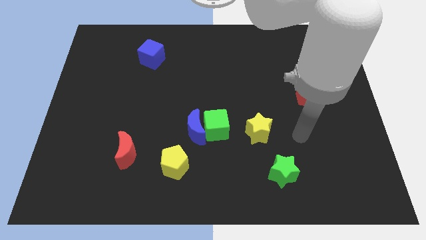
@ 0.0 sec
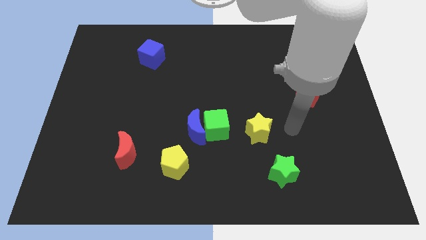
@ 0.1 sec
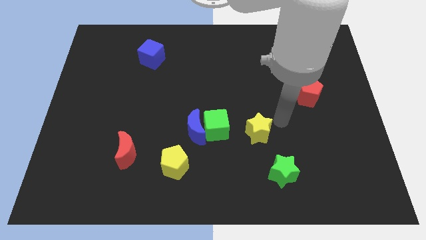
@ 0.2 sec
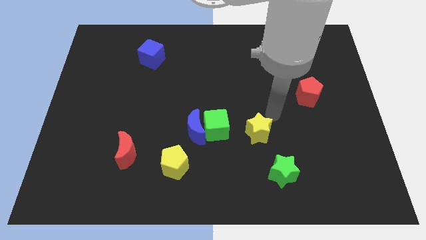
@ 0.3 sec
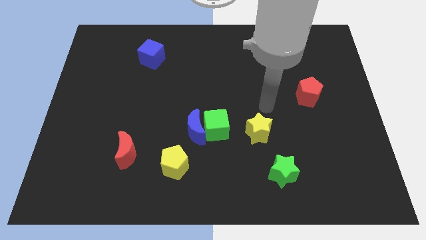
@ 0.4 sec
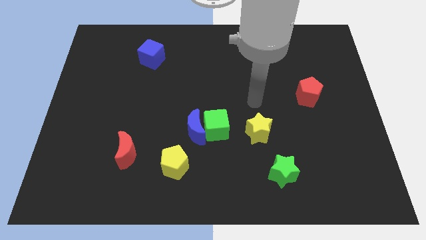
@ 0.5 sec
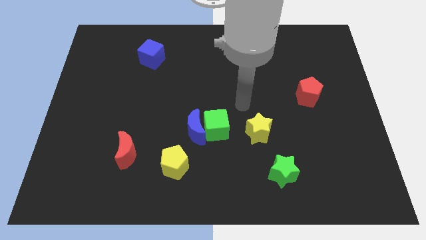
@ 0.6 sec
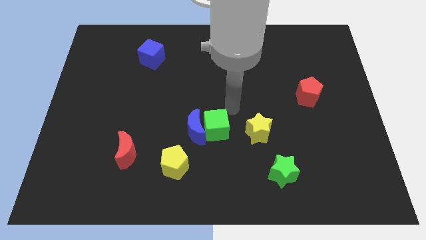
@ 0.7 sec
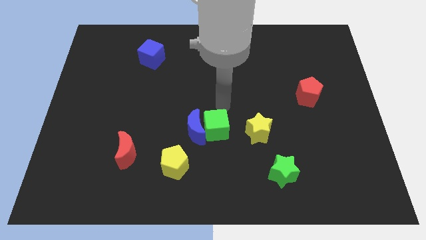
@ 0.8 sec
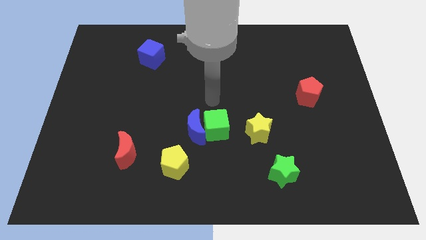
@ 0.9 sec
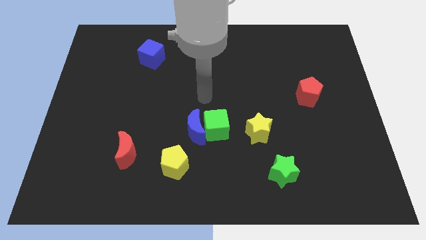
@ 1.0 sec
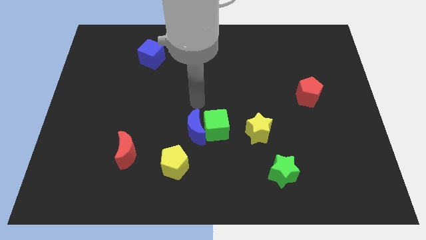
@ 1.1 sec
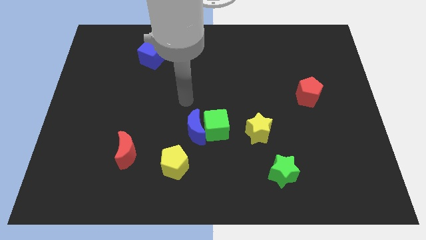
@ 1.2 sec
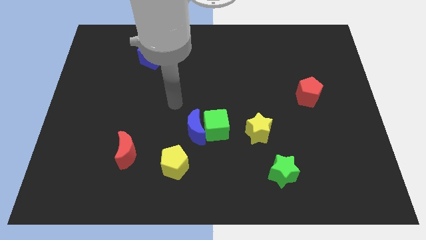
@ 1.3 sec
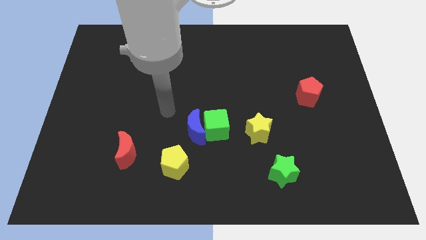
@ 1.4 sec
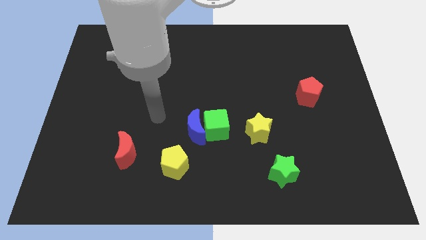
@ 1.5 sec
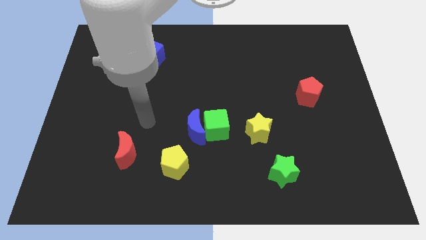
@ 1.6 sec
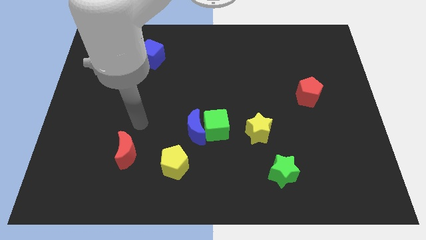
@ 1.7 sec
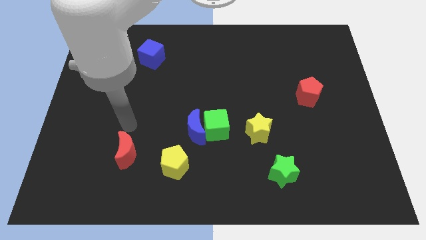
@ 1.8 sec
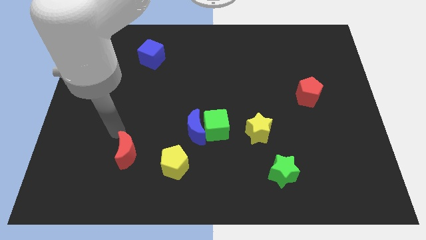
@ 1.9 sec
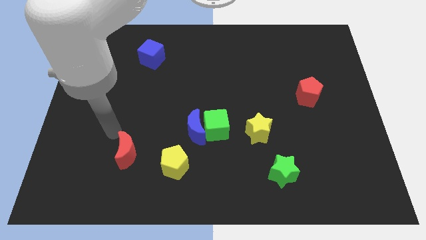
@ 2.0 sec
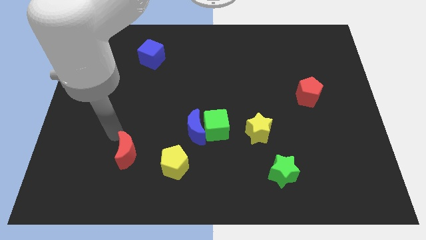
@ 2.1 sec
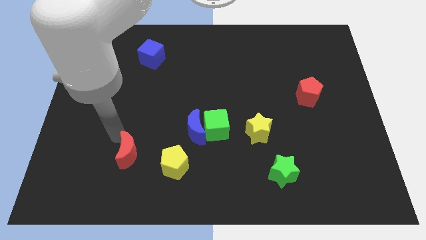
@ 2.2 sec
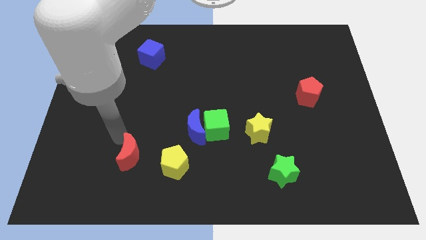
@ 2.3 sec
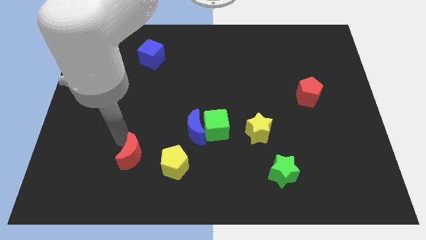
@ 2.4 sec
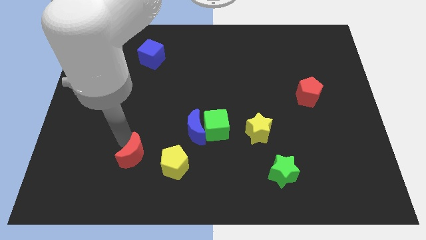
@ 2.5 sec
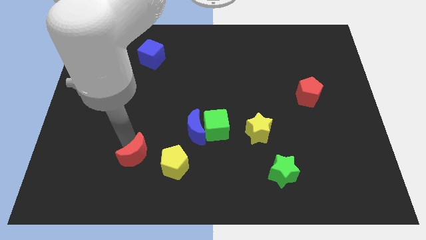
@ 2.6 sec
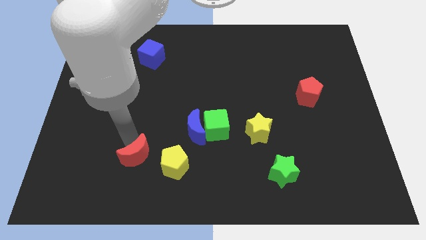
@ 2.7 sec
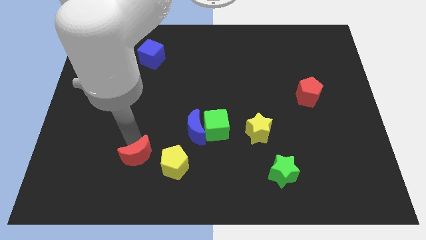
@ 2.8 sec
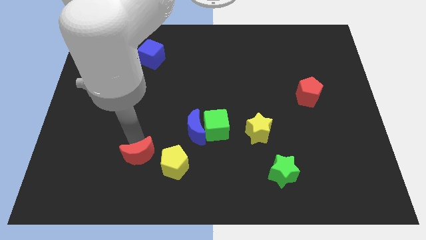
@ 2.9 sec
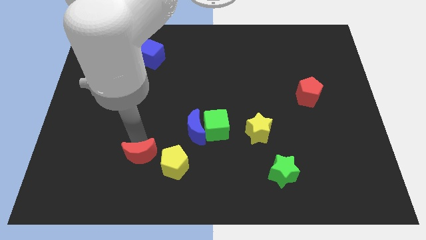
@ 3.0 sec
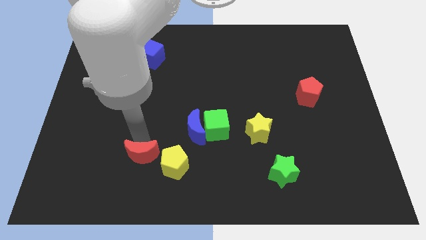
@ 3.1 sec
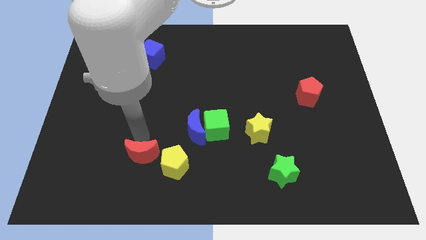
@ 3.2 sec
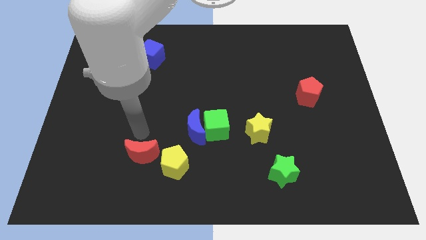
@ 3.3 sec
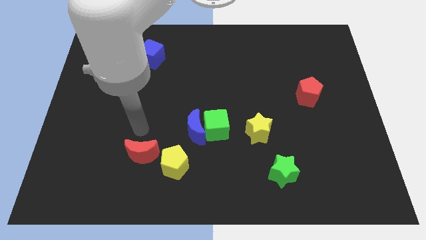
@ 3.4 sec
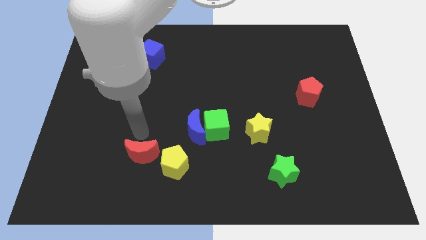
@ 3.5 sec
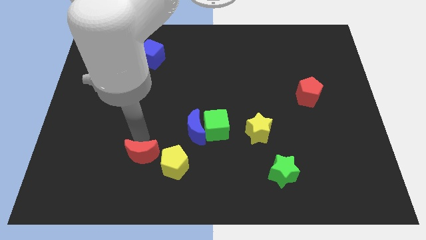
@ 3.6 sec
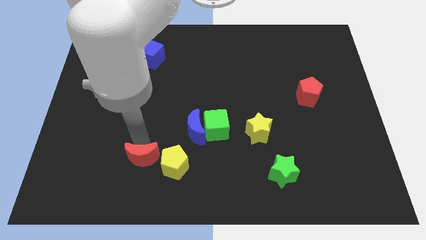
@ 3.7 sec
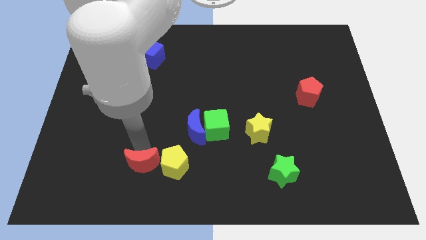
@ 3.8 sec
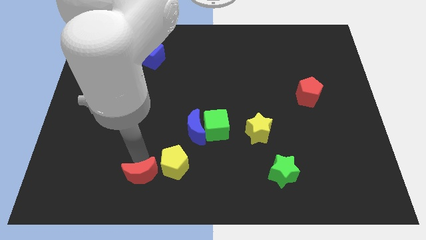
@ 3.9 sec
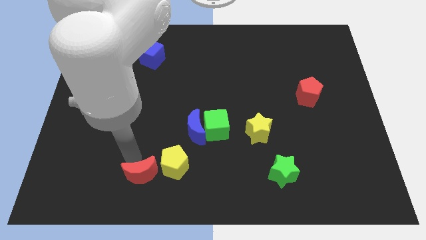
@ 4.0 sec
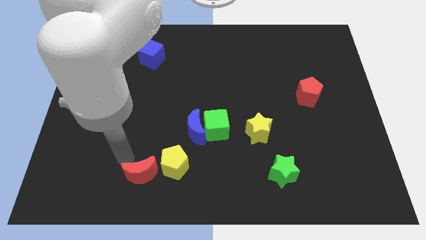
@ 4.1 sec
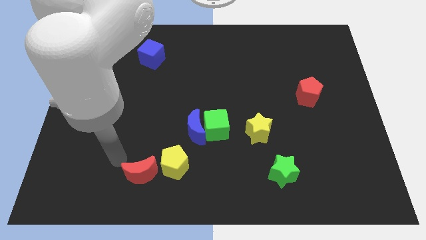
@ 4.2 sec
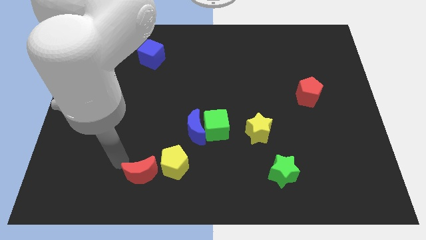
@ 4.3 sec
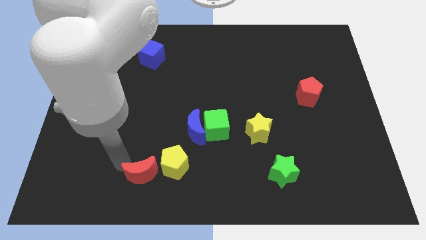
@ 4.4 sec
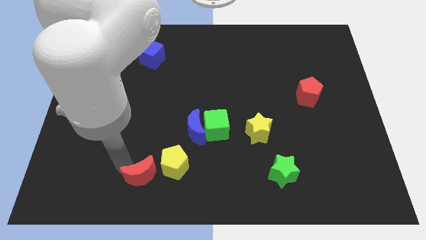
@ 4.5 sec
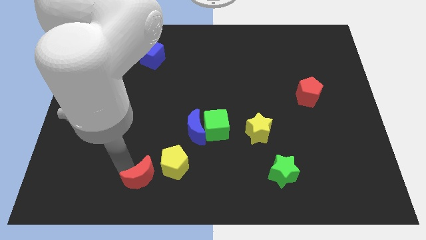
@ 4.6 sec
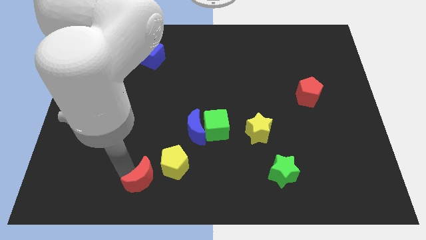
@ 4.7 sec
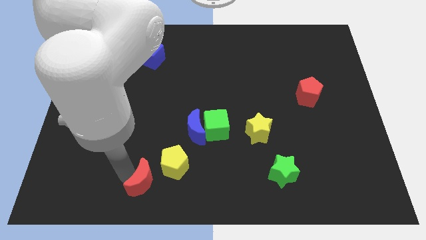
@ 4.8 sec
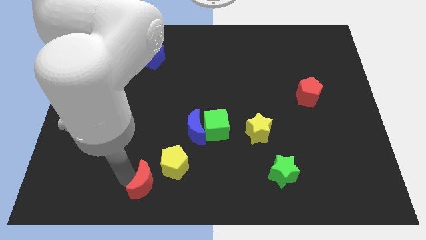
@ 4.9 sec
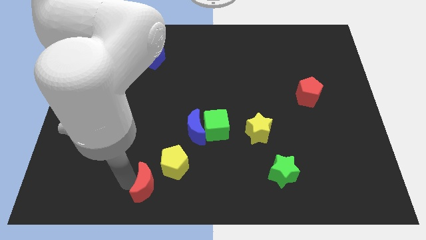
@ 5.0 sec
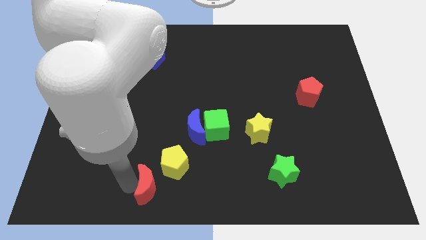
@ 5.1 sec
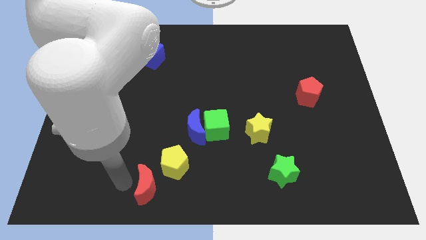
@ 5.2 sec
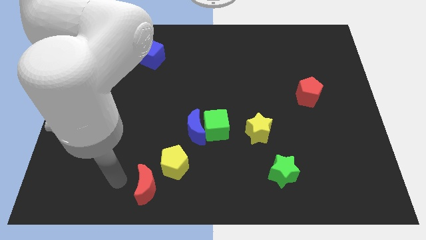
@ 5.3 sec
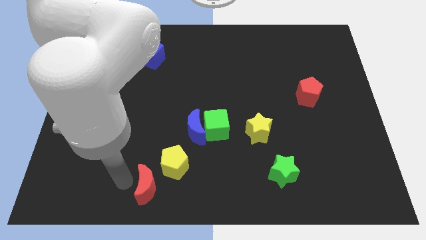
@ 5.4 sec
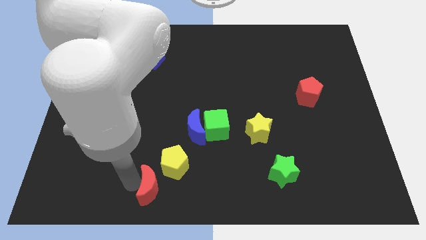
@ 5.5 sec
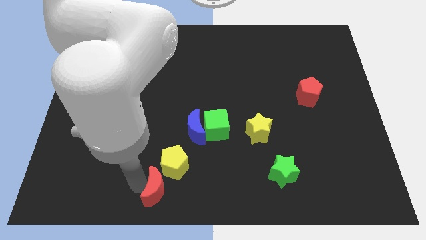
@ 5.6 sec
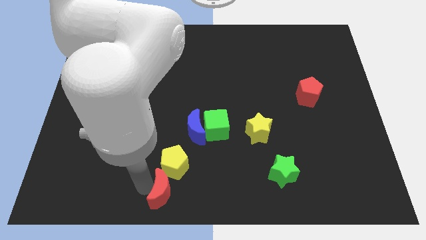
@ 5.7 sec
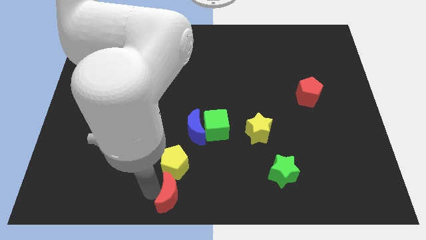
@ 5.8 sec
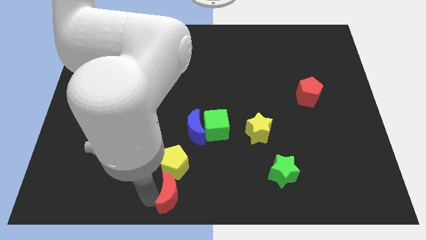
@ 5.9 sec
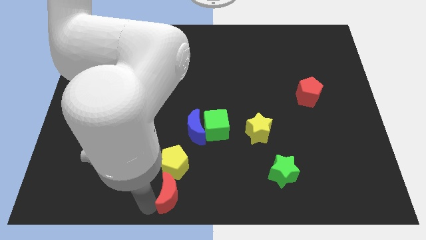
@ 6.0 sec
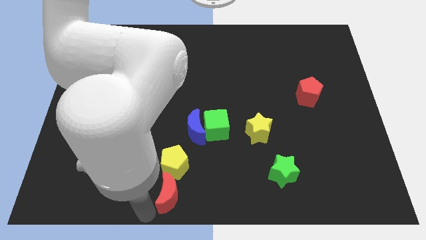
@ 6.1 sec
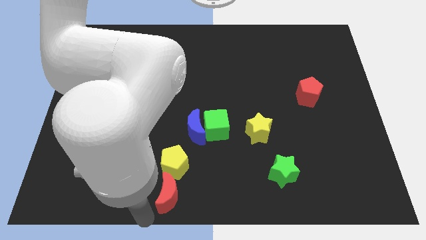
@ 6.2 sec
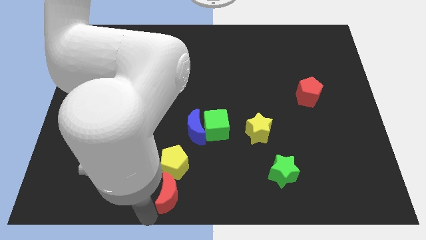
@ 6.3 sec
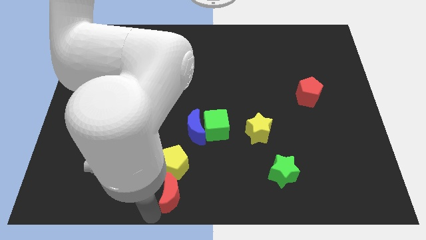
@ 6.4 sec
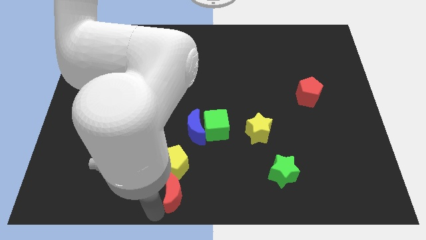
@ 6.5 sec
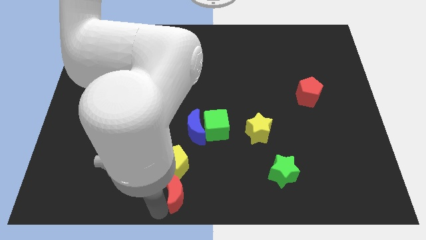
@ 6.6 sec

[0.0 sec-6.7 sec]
move the red moon below the blue moon

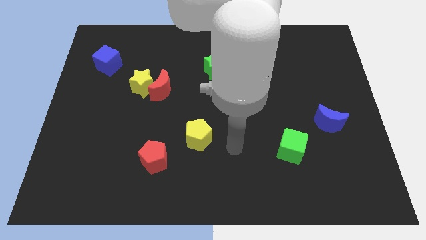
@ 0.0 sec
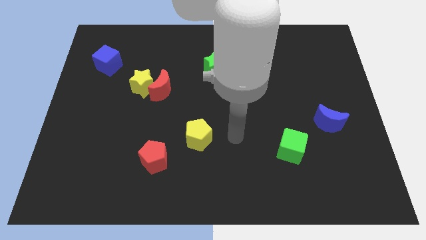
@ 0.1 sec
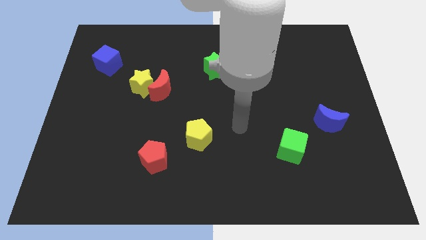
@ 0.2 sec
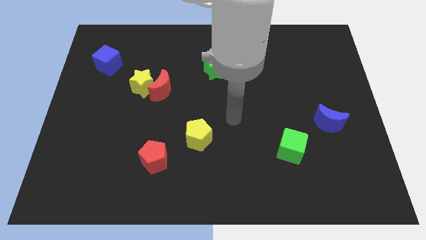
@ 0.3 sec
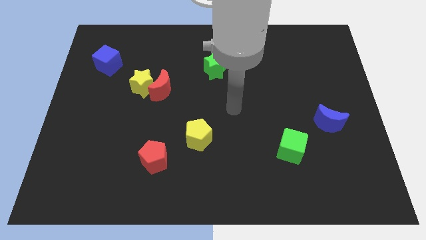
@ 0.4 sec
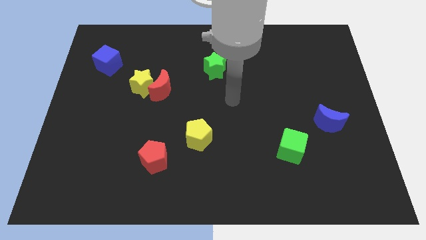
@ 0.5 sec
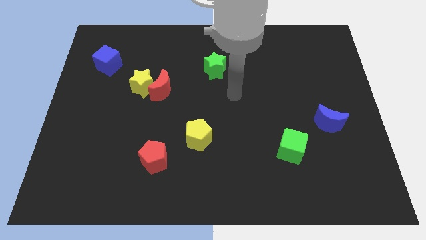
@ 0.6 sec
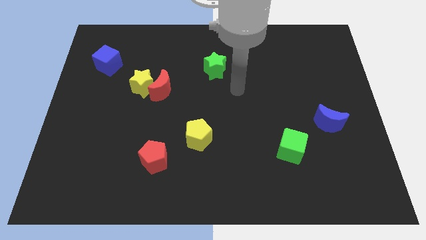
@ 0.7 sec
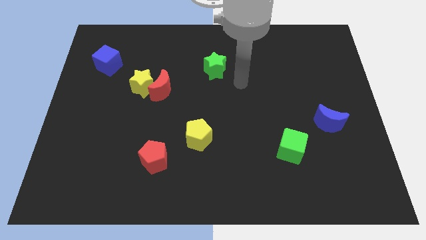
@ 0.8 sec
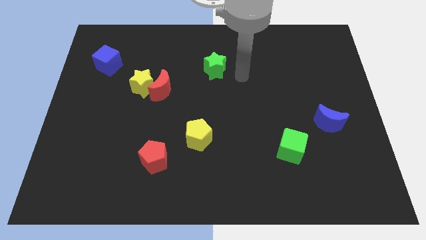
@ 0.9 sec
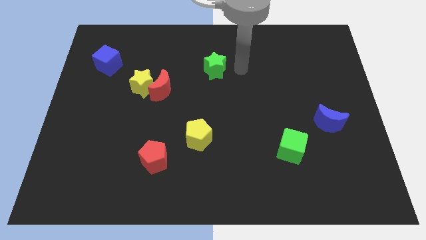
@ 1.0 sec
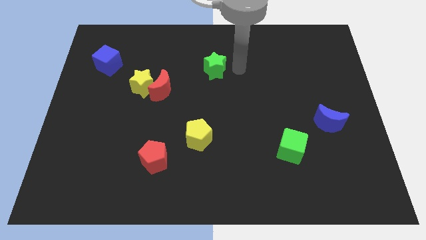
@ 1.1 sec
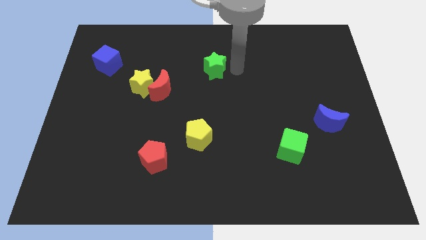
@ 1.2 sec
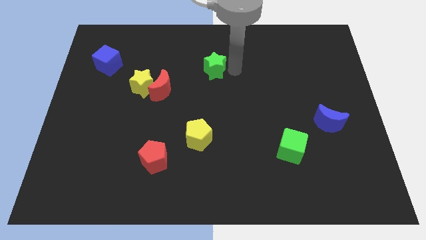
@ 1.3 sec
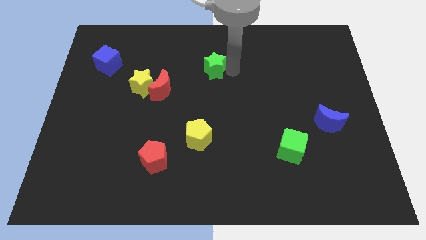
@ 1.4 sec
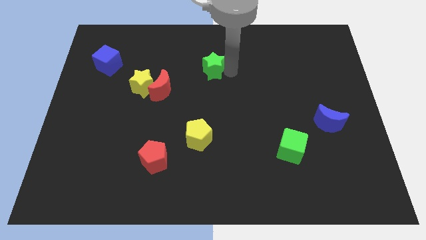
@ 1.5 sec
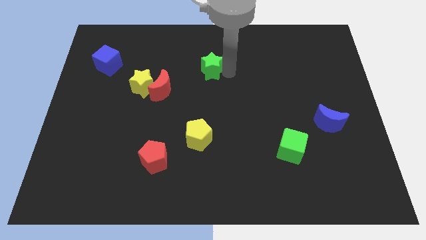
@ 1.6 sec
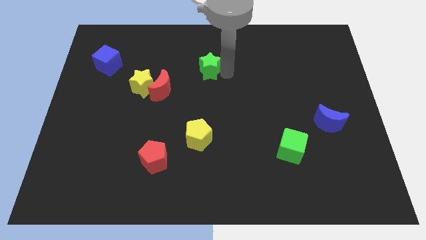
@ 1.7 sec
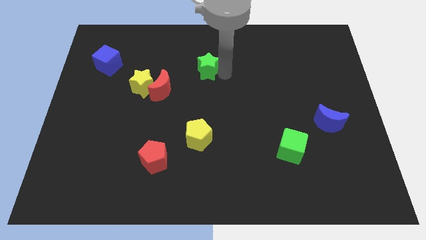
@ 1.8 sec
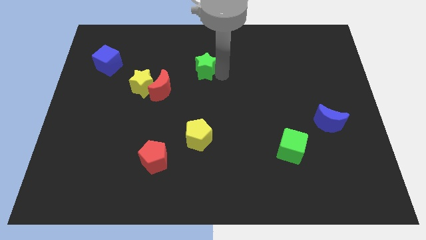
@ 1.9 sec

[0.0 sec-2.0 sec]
move the green star diagonally up and to the right of the red moon
